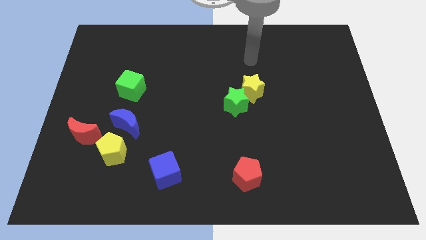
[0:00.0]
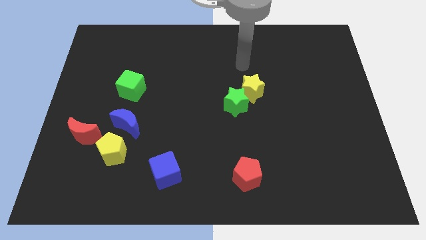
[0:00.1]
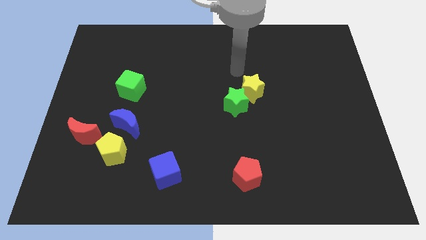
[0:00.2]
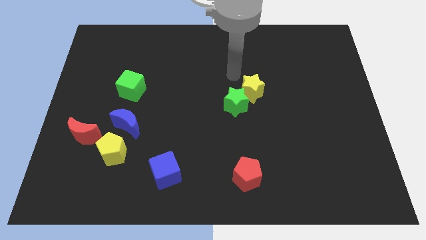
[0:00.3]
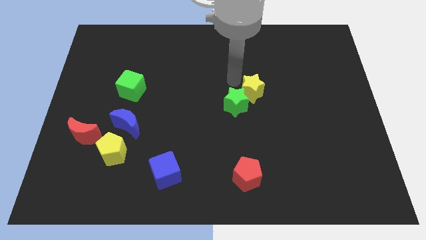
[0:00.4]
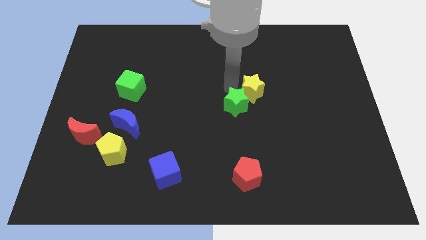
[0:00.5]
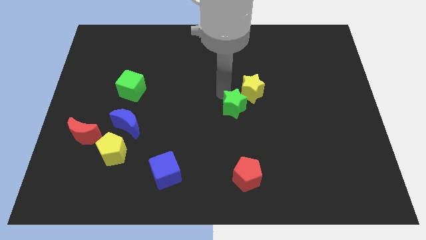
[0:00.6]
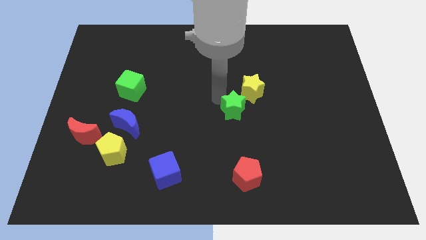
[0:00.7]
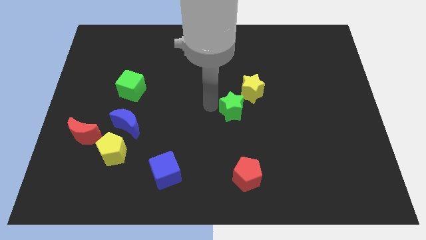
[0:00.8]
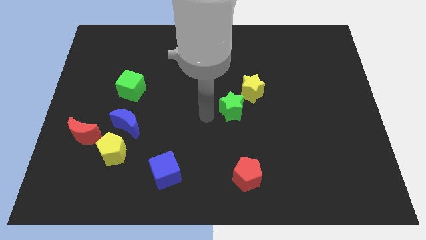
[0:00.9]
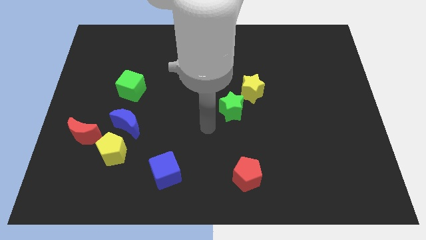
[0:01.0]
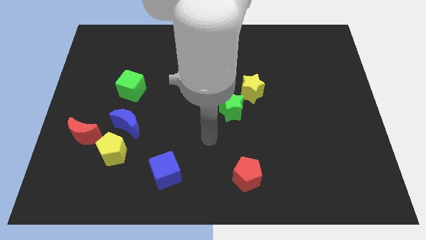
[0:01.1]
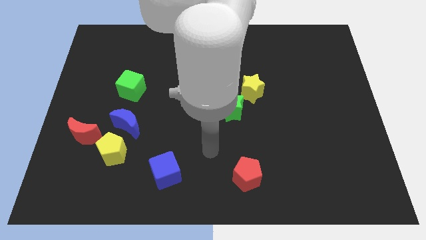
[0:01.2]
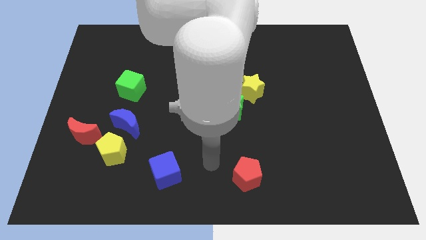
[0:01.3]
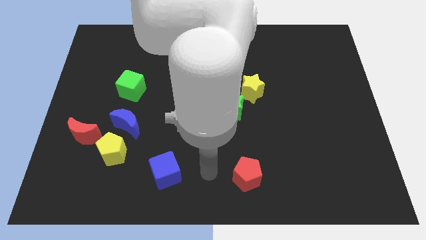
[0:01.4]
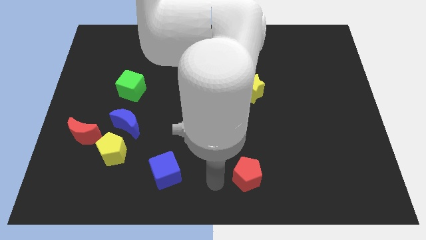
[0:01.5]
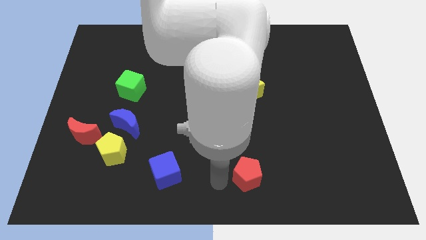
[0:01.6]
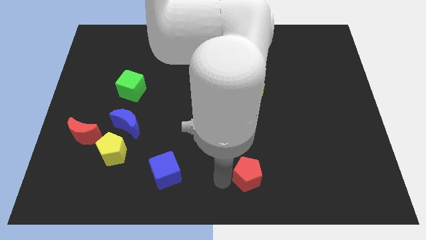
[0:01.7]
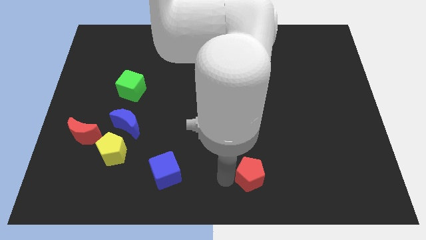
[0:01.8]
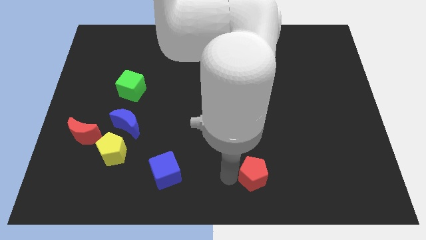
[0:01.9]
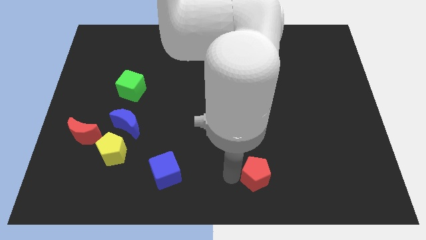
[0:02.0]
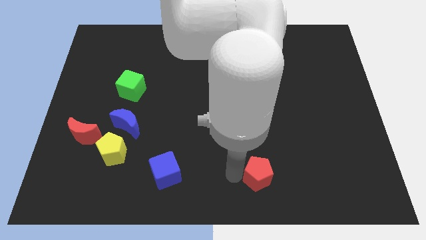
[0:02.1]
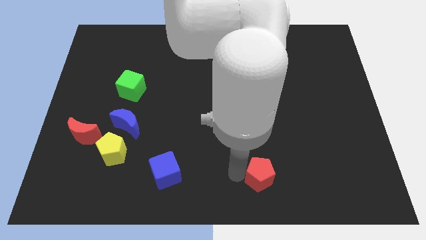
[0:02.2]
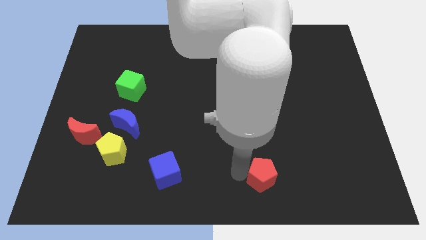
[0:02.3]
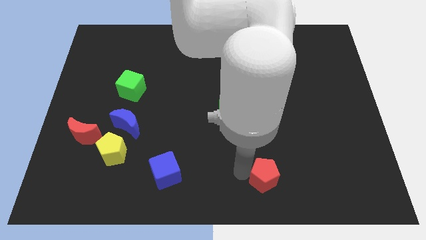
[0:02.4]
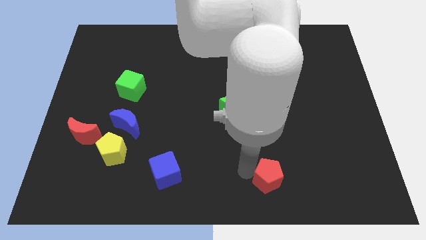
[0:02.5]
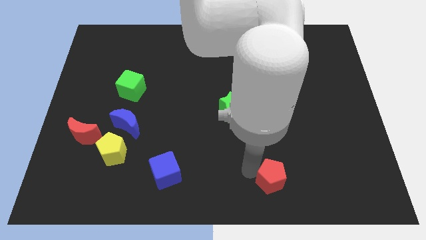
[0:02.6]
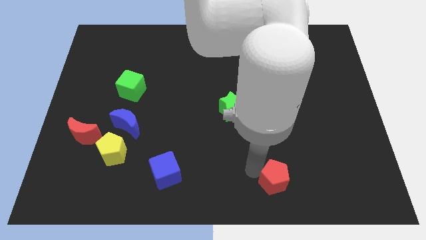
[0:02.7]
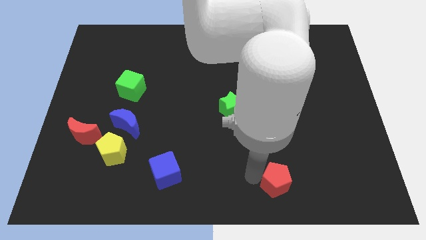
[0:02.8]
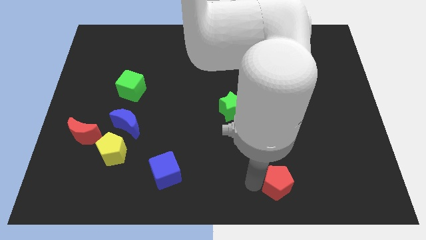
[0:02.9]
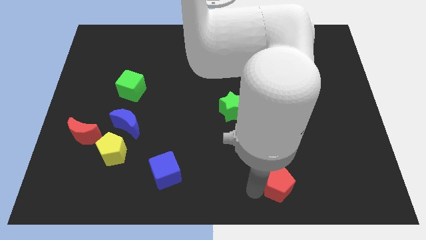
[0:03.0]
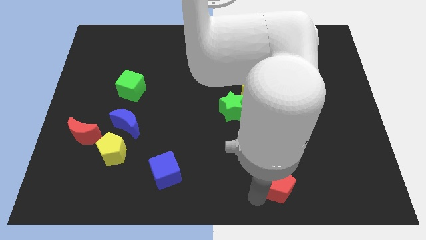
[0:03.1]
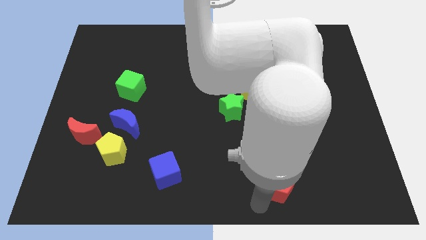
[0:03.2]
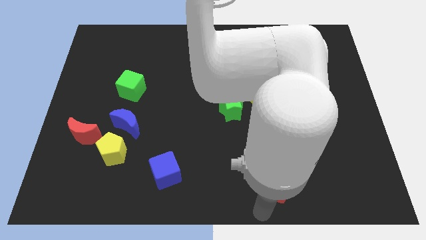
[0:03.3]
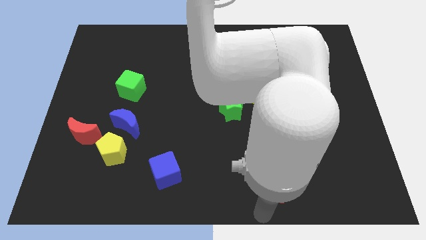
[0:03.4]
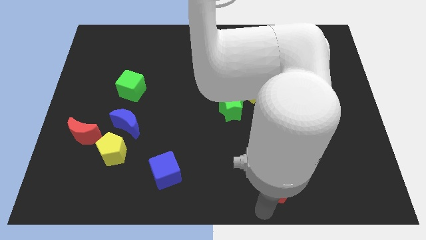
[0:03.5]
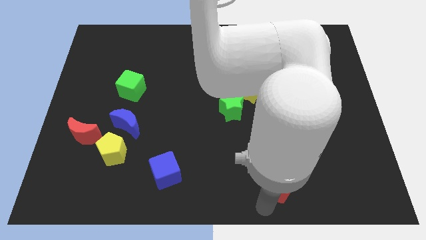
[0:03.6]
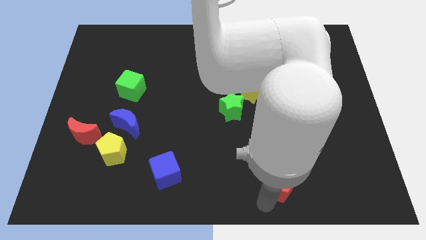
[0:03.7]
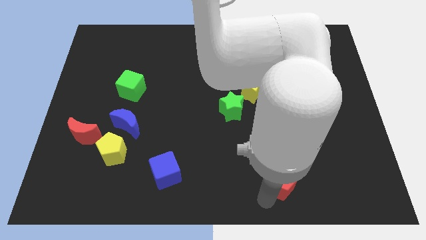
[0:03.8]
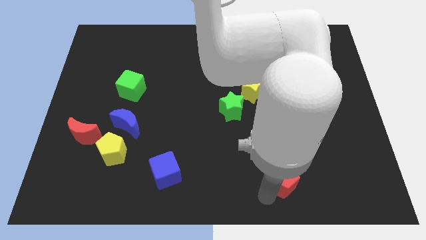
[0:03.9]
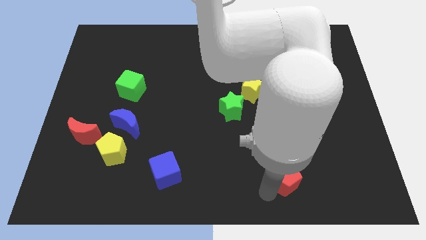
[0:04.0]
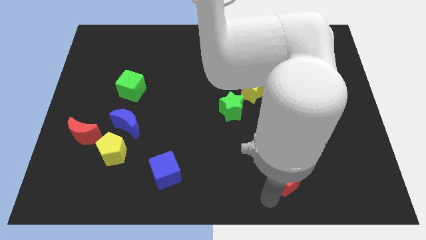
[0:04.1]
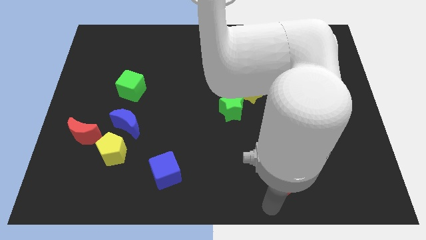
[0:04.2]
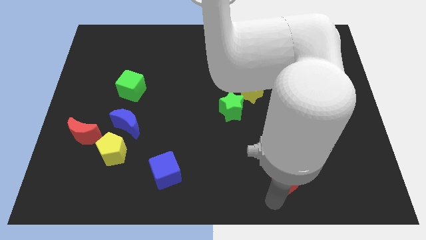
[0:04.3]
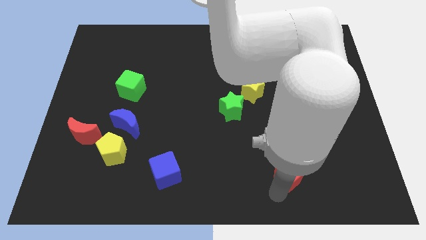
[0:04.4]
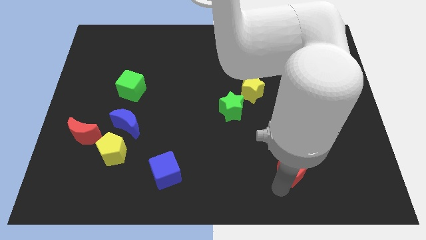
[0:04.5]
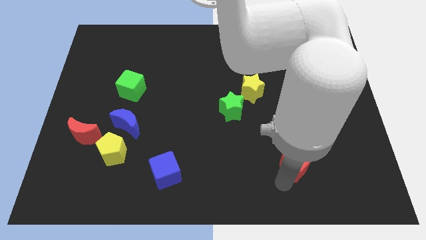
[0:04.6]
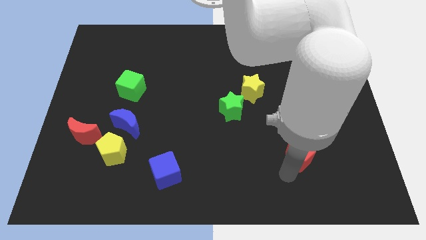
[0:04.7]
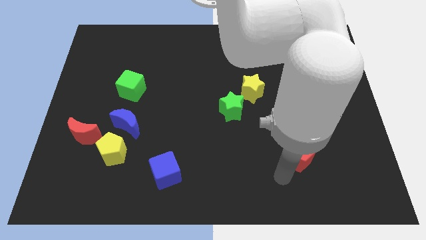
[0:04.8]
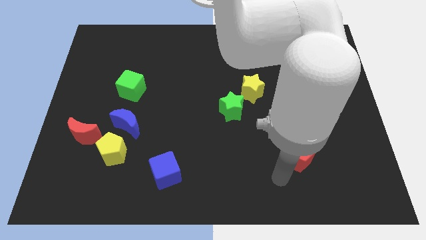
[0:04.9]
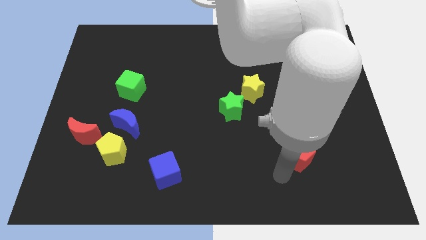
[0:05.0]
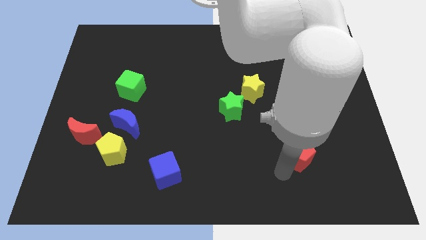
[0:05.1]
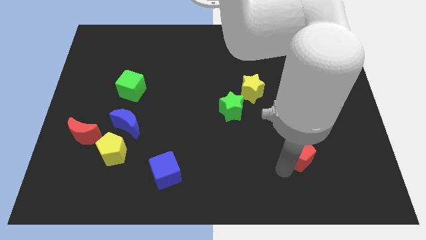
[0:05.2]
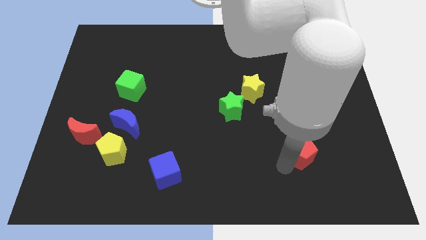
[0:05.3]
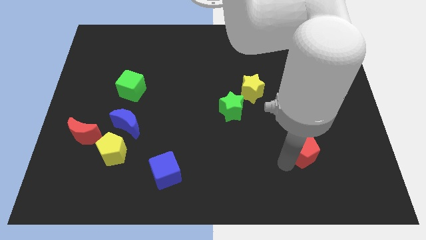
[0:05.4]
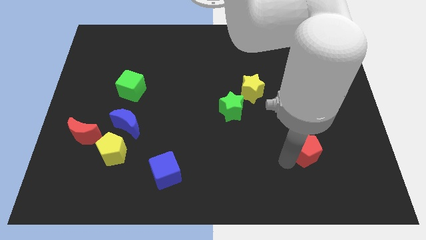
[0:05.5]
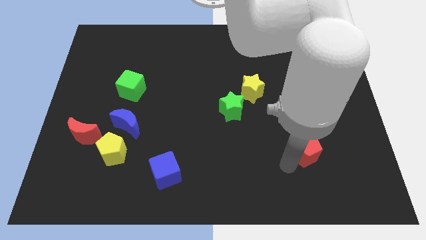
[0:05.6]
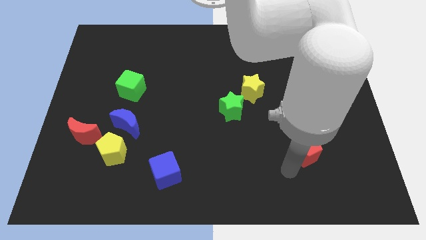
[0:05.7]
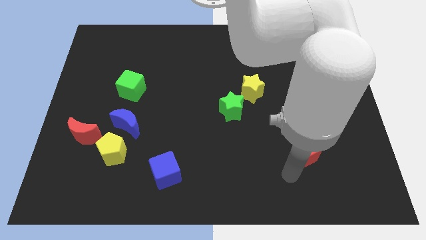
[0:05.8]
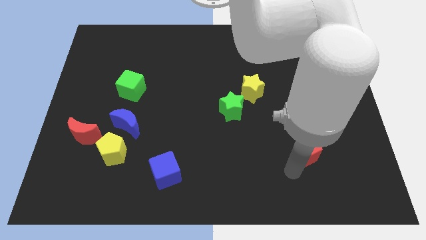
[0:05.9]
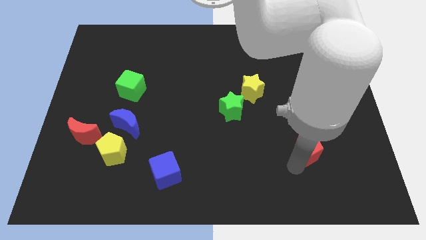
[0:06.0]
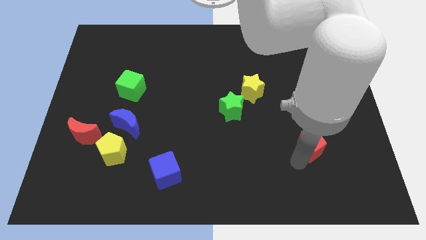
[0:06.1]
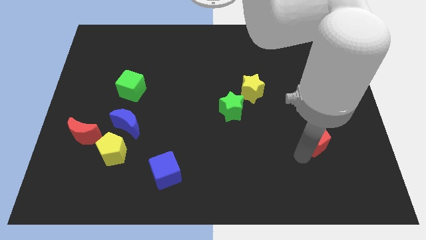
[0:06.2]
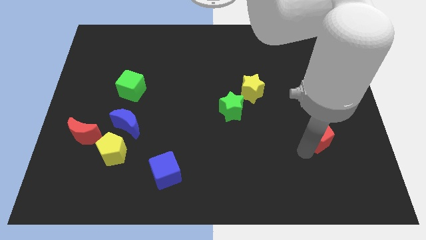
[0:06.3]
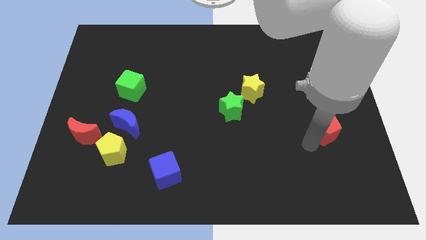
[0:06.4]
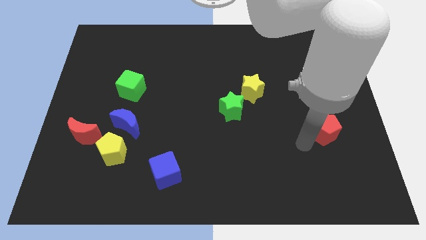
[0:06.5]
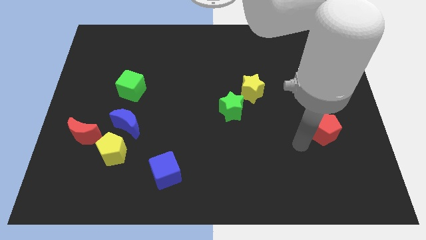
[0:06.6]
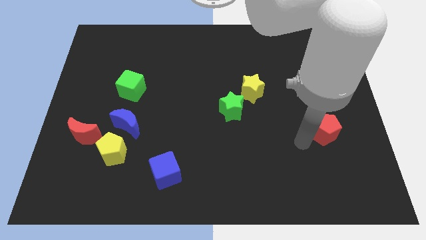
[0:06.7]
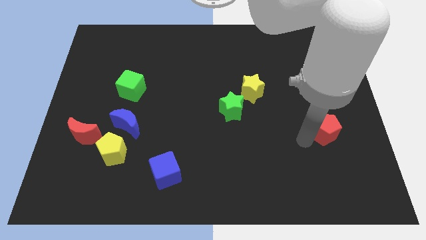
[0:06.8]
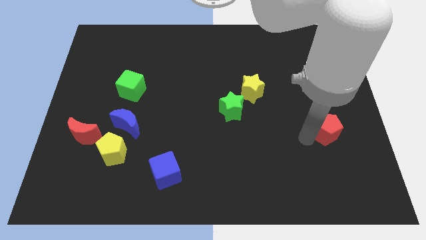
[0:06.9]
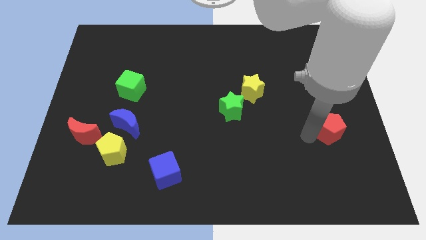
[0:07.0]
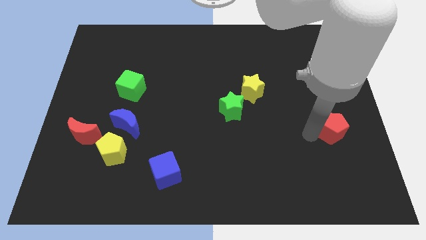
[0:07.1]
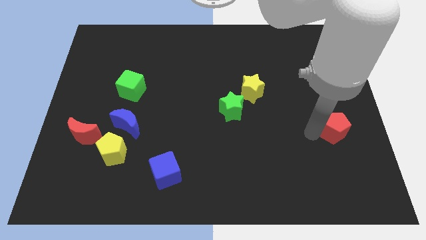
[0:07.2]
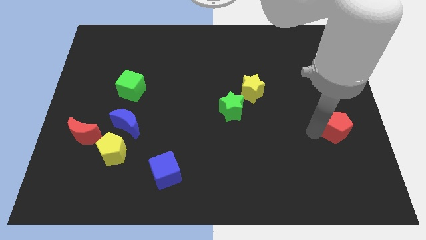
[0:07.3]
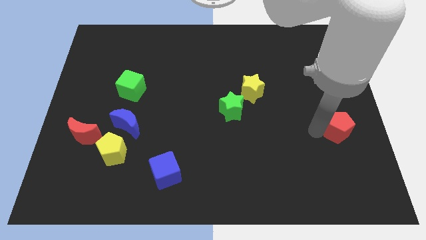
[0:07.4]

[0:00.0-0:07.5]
move the red pentagon to the right side
